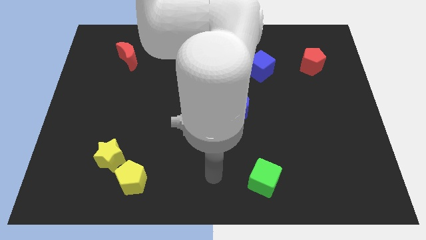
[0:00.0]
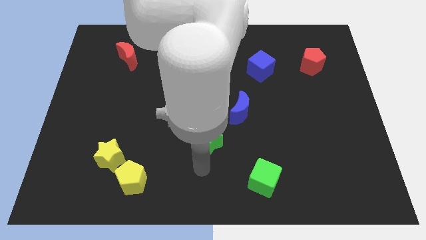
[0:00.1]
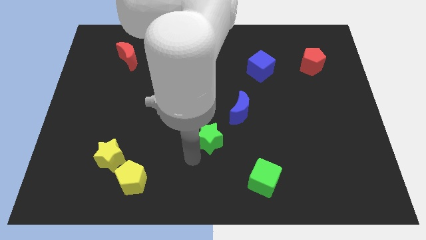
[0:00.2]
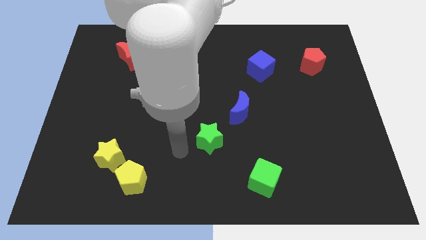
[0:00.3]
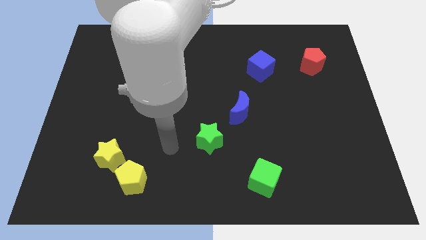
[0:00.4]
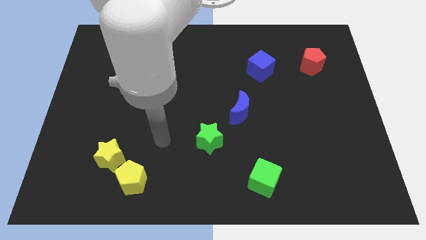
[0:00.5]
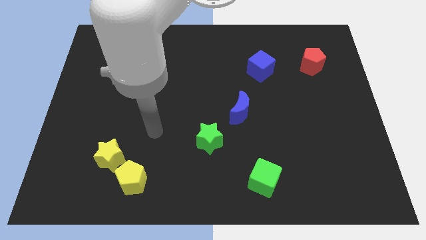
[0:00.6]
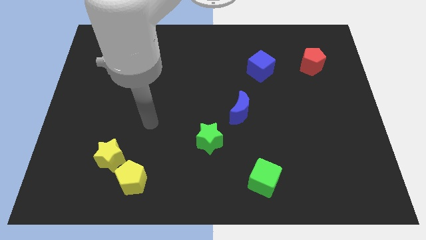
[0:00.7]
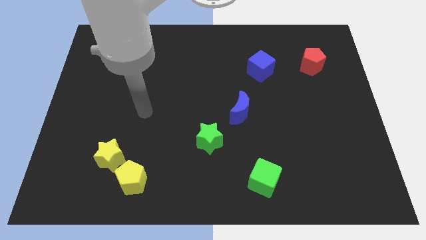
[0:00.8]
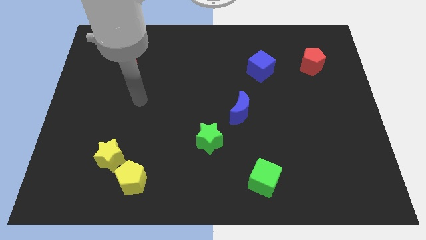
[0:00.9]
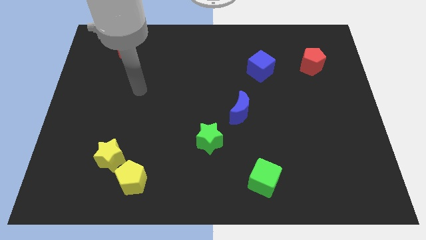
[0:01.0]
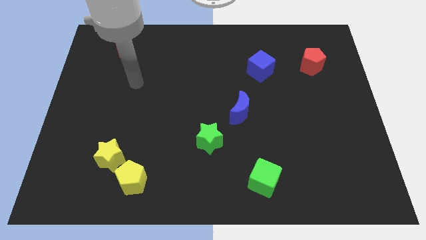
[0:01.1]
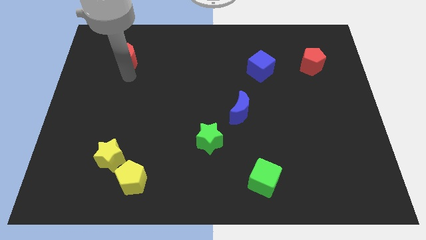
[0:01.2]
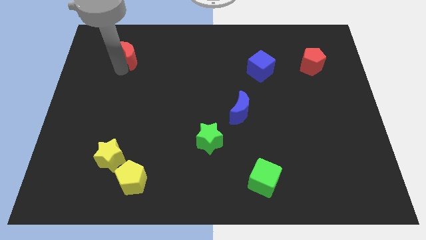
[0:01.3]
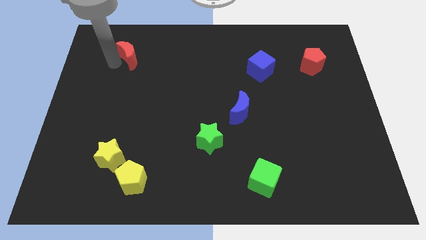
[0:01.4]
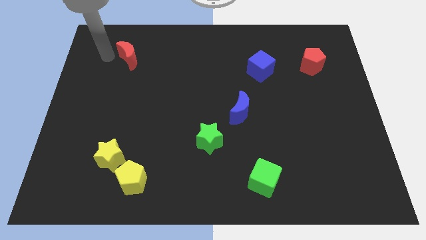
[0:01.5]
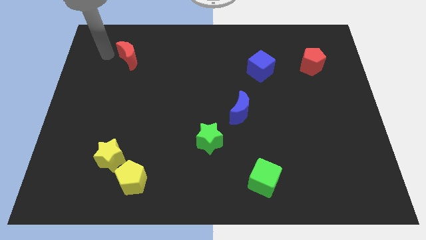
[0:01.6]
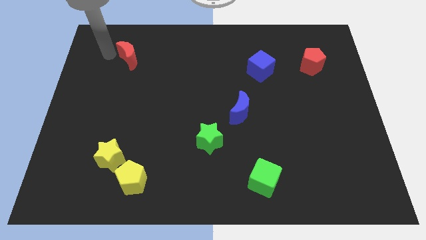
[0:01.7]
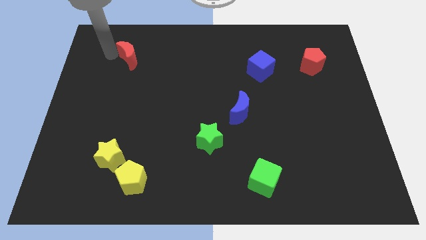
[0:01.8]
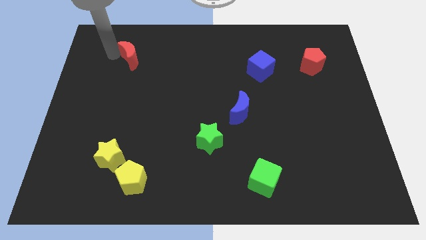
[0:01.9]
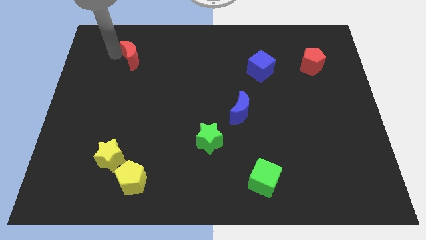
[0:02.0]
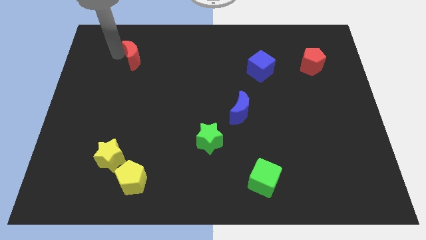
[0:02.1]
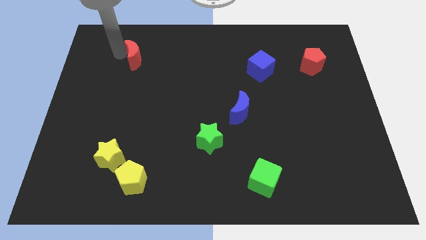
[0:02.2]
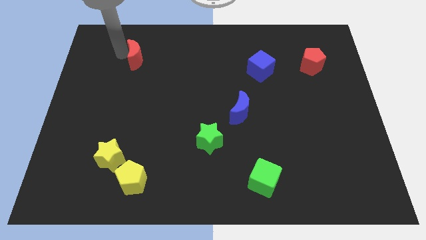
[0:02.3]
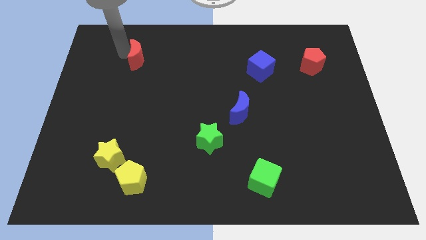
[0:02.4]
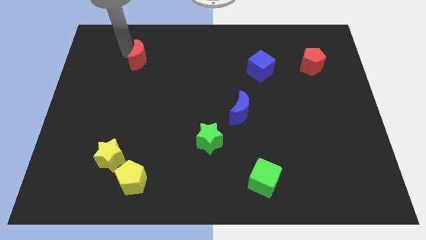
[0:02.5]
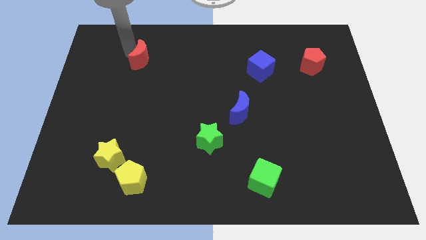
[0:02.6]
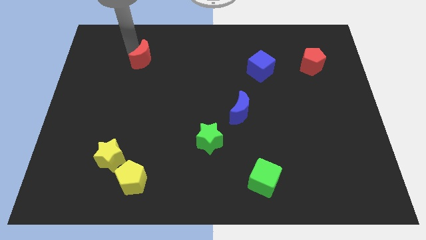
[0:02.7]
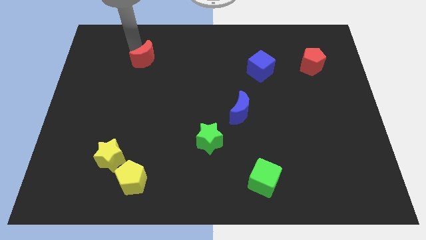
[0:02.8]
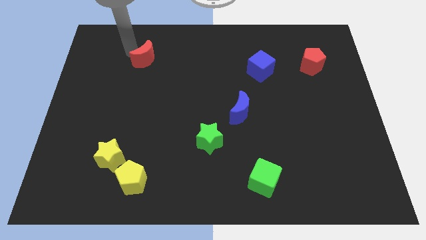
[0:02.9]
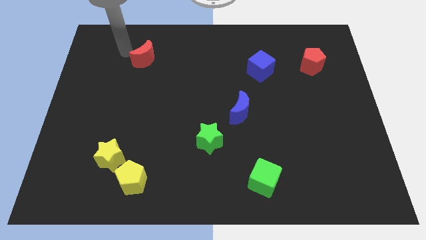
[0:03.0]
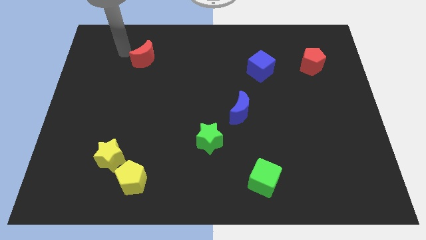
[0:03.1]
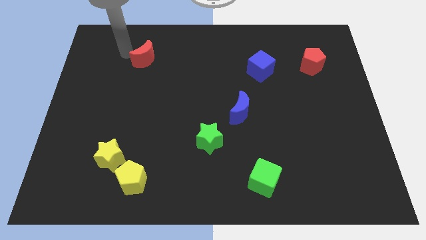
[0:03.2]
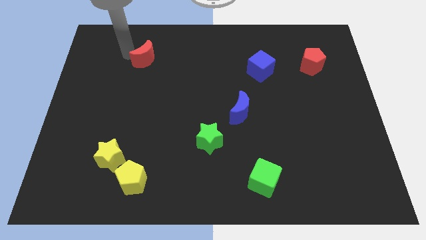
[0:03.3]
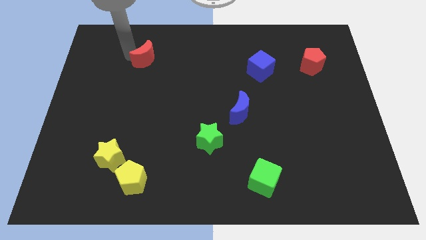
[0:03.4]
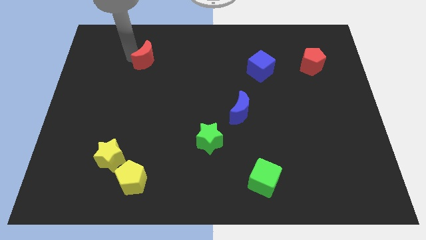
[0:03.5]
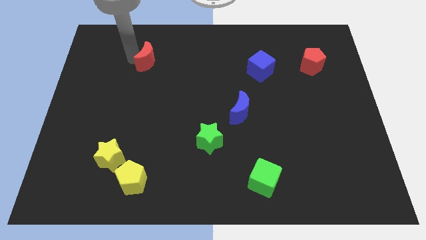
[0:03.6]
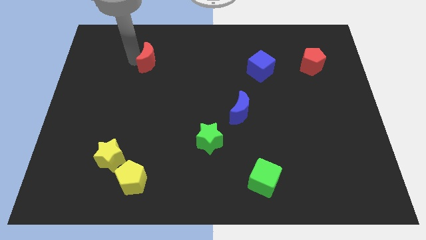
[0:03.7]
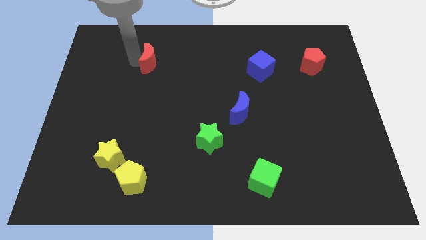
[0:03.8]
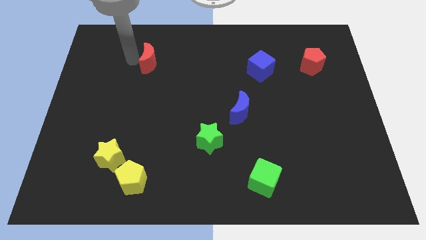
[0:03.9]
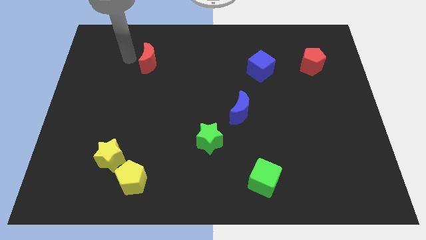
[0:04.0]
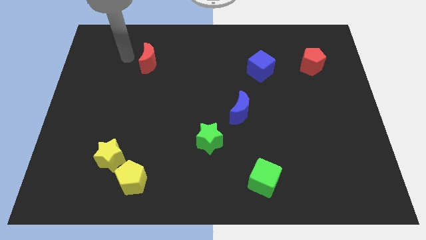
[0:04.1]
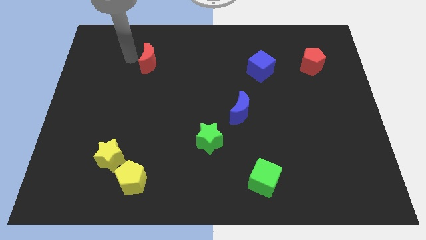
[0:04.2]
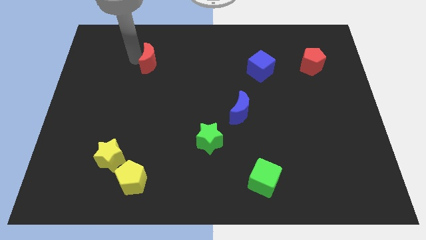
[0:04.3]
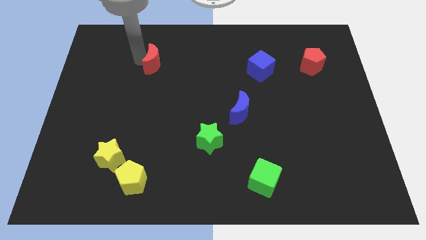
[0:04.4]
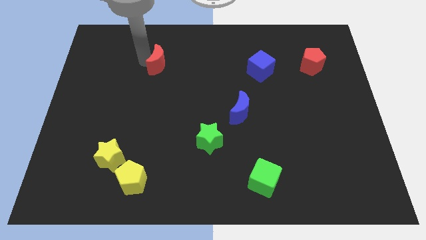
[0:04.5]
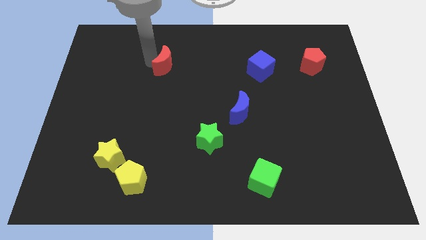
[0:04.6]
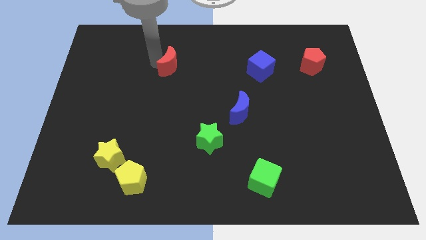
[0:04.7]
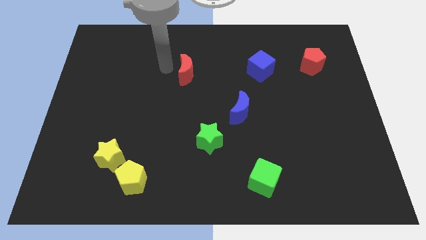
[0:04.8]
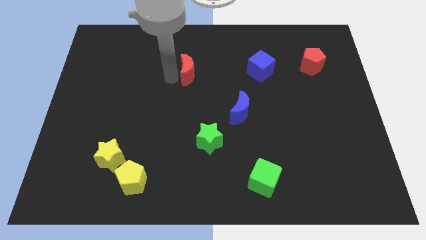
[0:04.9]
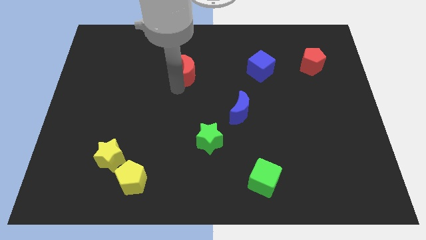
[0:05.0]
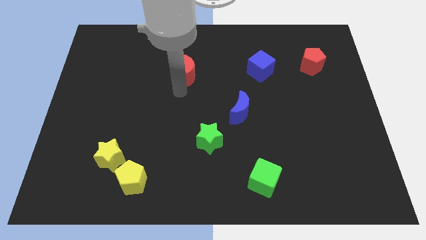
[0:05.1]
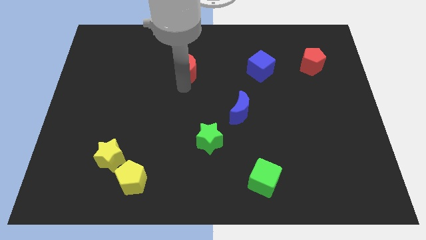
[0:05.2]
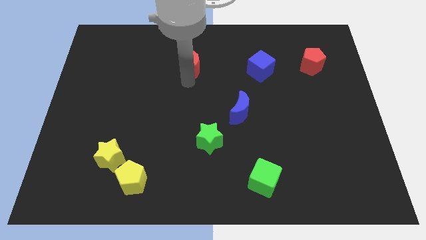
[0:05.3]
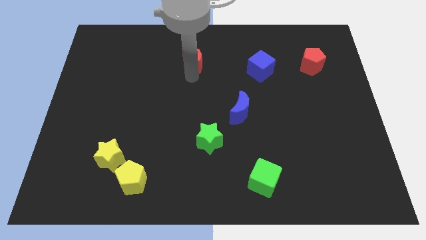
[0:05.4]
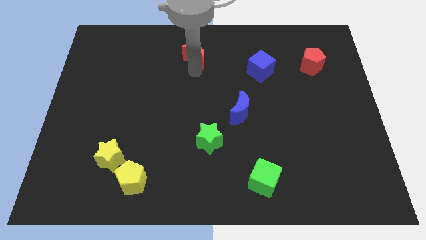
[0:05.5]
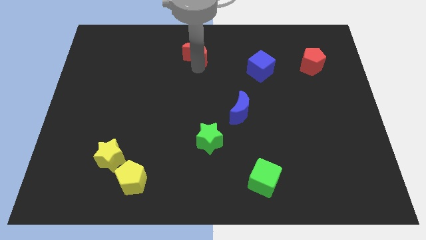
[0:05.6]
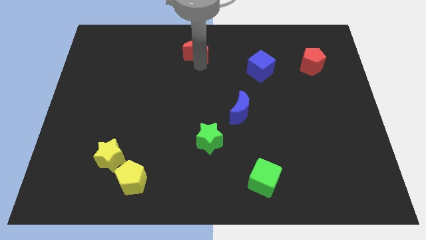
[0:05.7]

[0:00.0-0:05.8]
move the red moon to the top

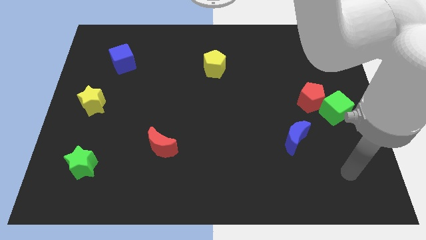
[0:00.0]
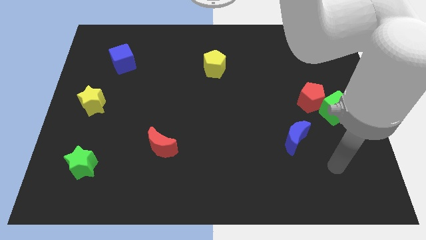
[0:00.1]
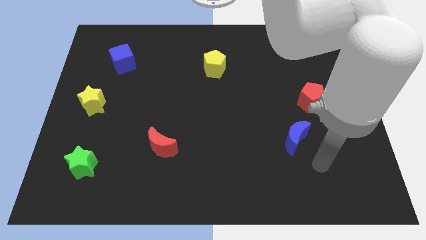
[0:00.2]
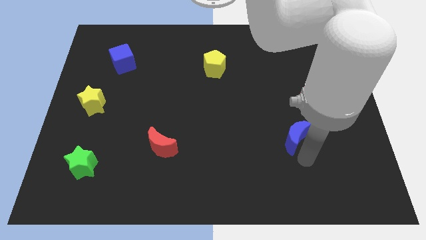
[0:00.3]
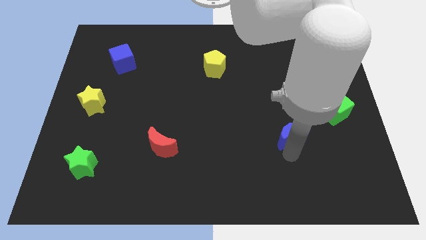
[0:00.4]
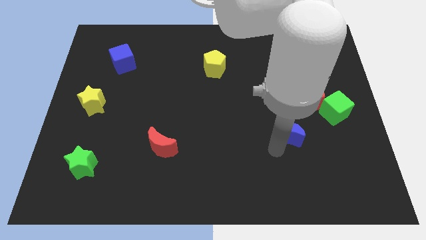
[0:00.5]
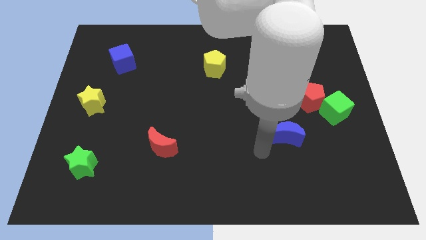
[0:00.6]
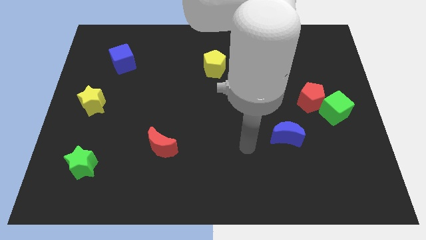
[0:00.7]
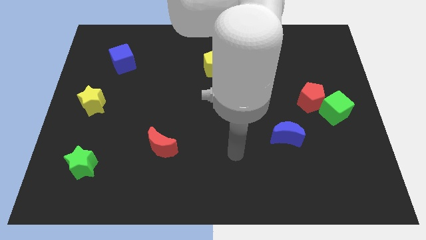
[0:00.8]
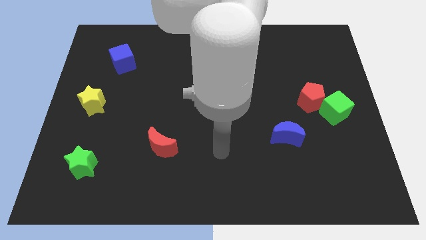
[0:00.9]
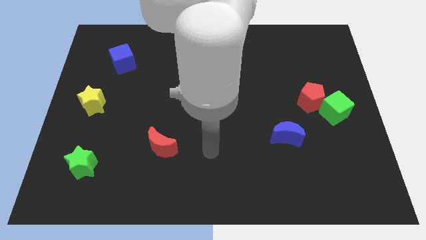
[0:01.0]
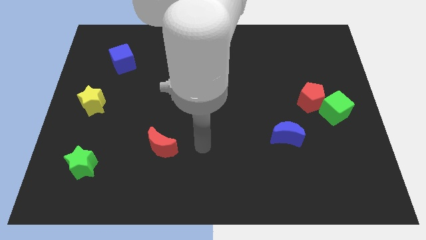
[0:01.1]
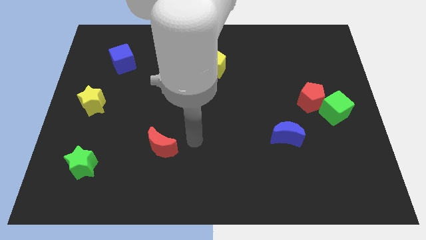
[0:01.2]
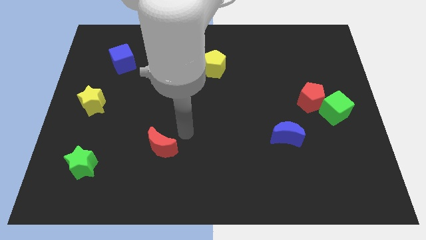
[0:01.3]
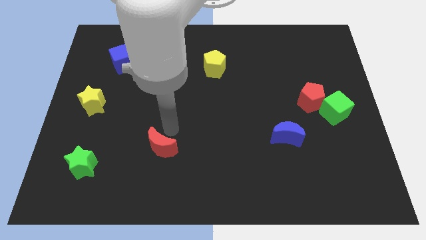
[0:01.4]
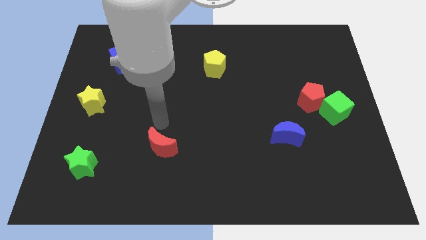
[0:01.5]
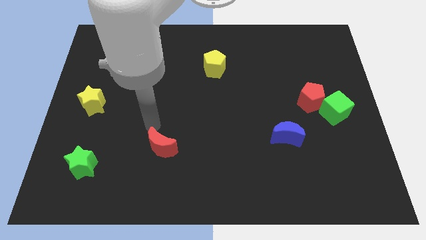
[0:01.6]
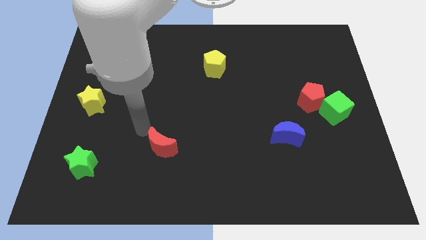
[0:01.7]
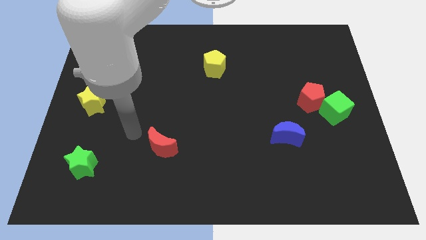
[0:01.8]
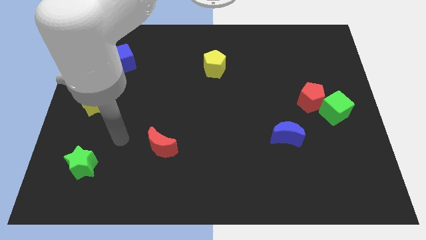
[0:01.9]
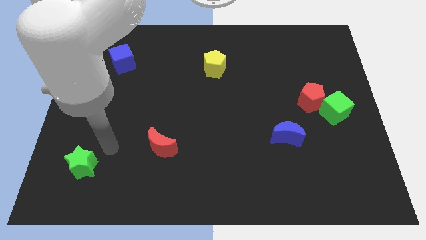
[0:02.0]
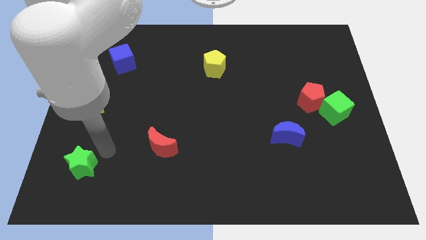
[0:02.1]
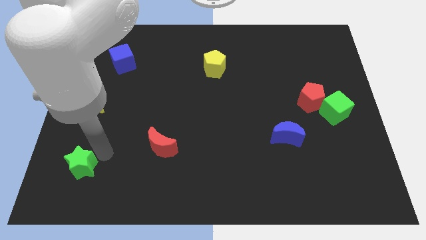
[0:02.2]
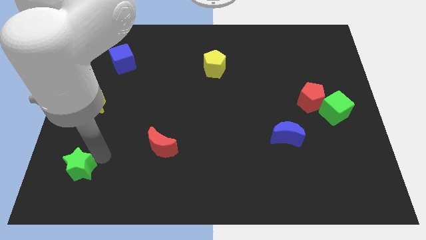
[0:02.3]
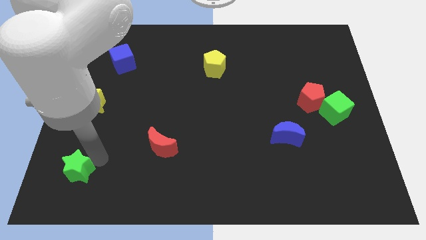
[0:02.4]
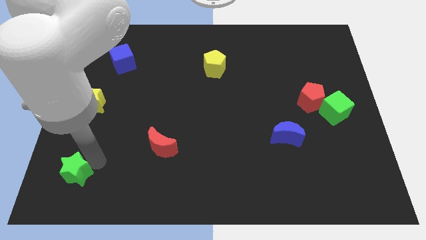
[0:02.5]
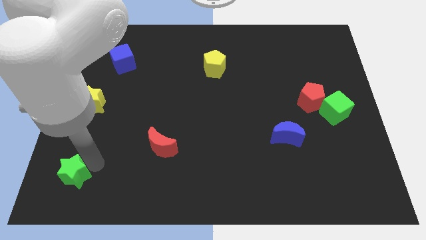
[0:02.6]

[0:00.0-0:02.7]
push the green star to the bottom left of the board
